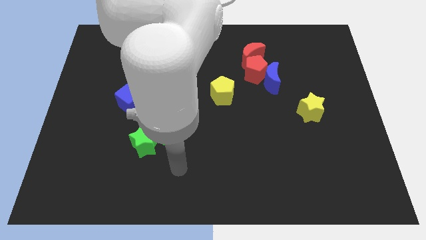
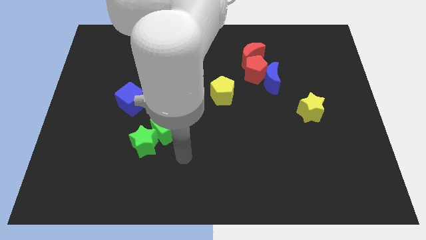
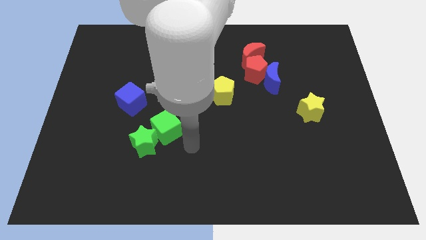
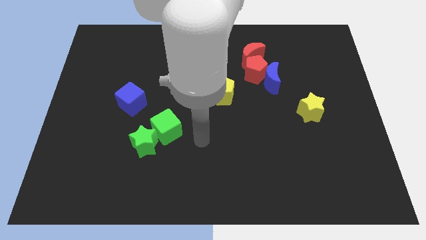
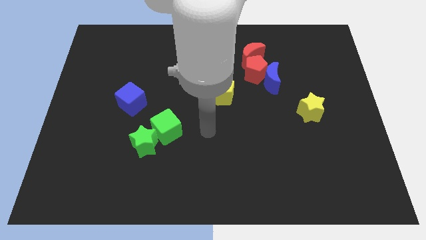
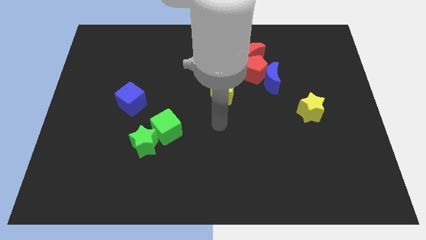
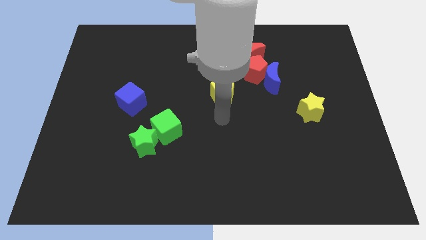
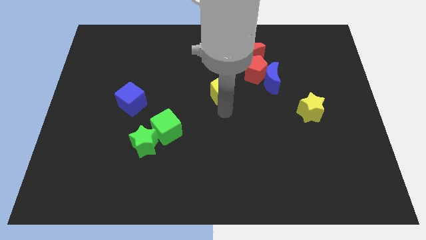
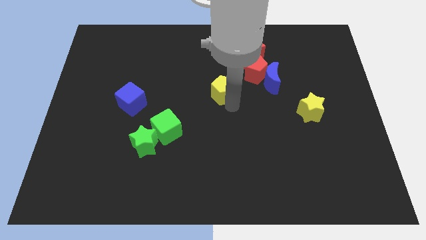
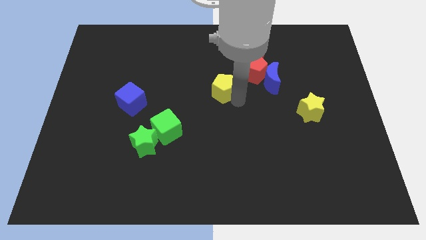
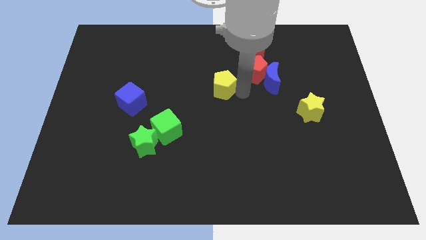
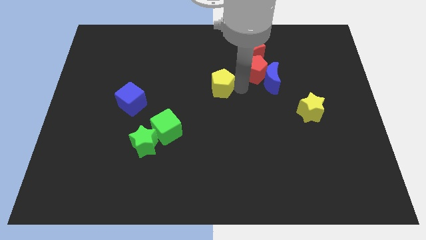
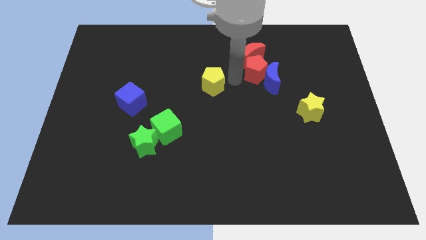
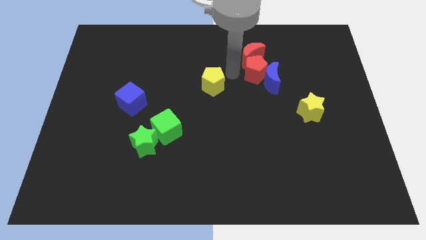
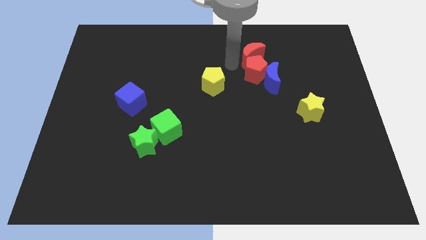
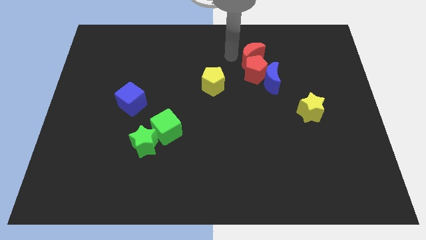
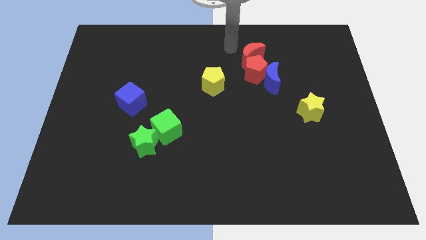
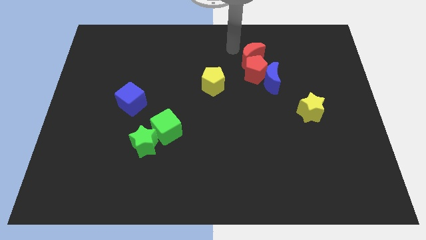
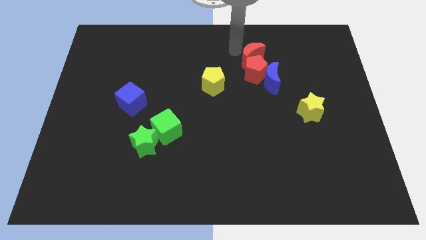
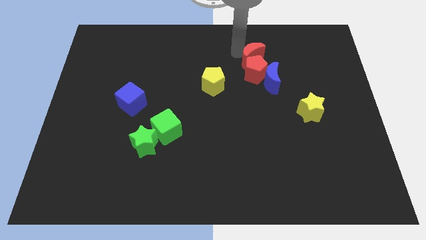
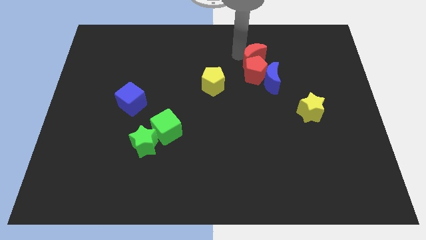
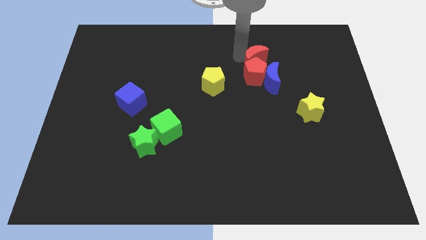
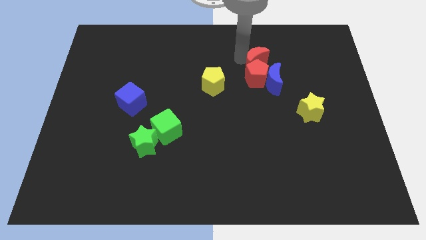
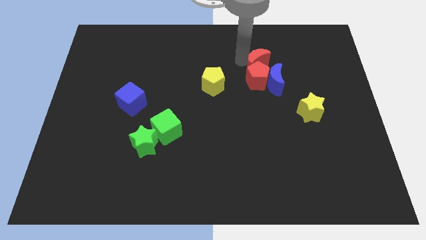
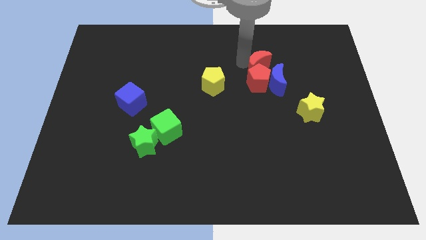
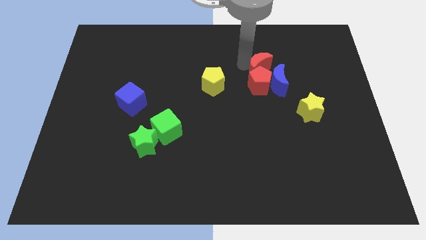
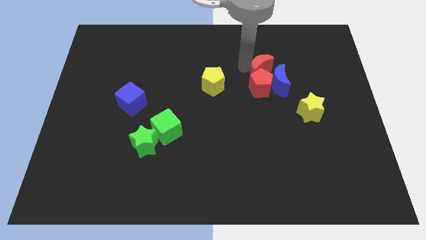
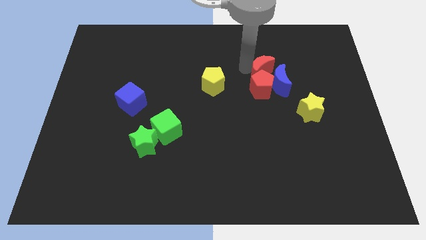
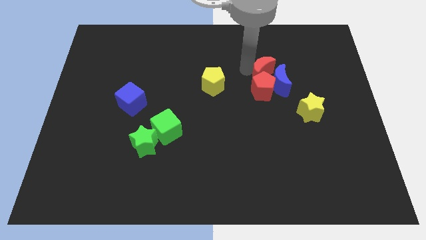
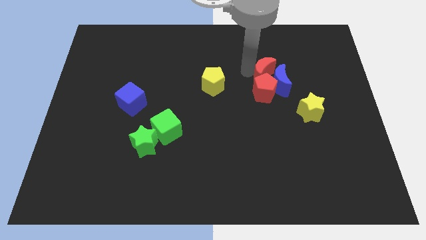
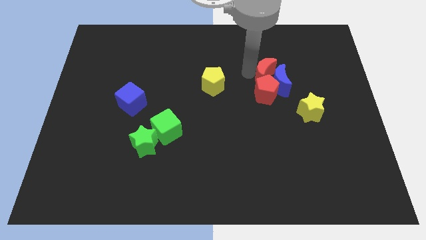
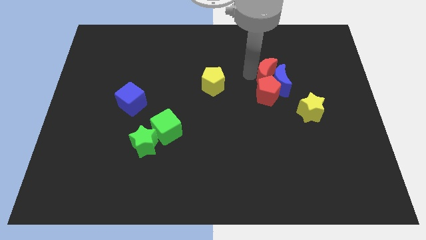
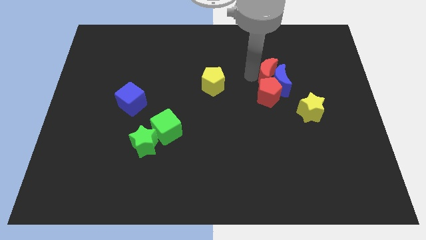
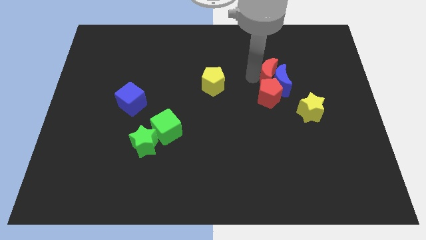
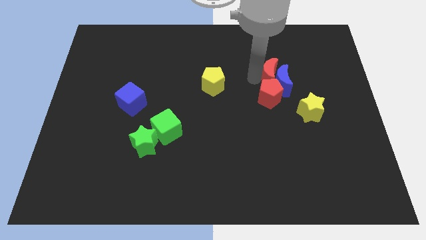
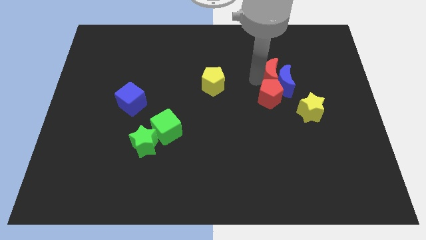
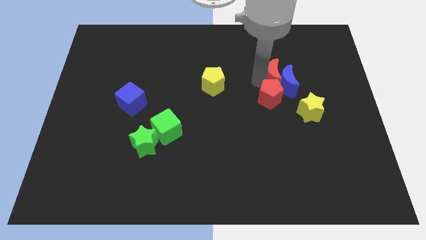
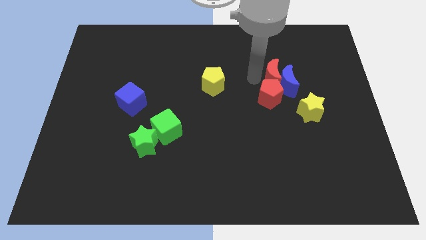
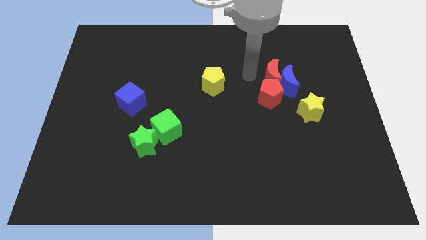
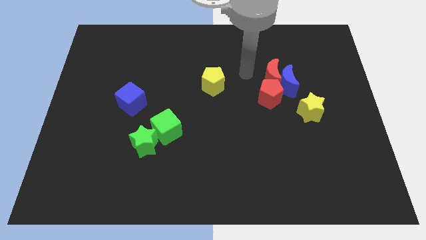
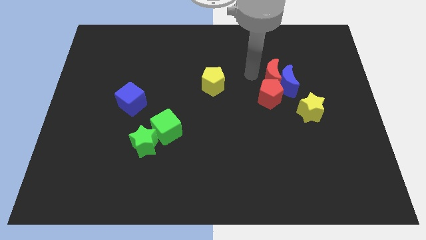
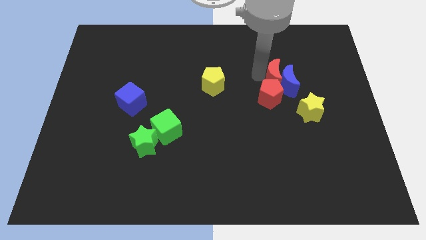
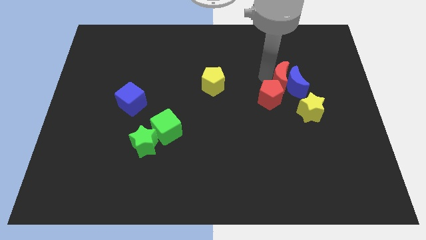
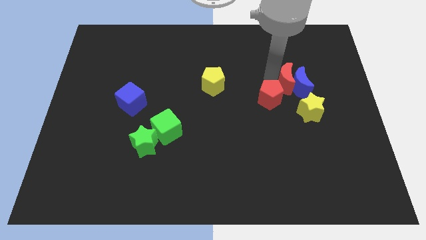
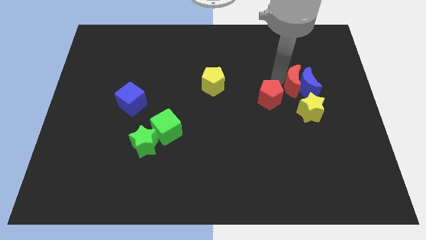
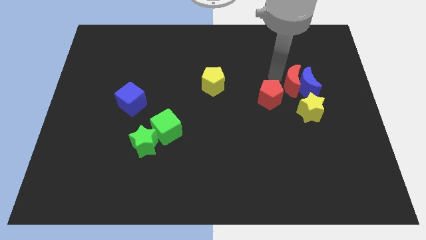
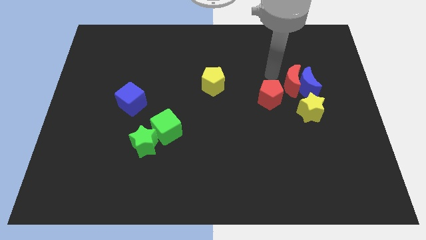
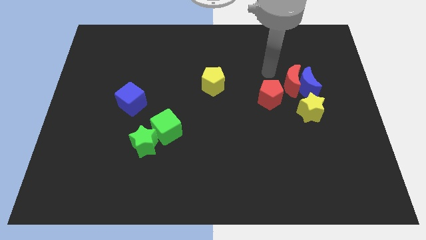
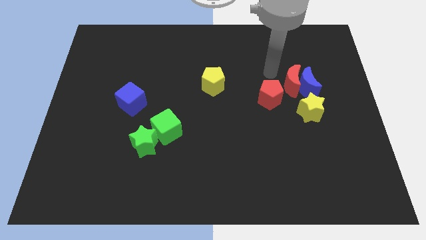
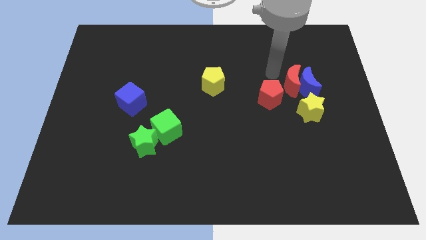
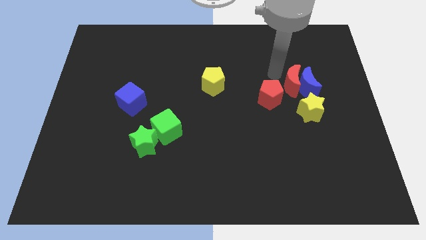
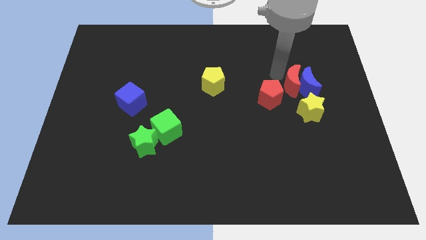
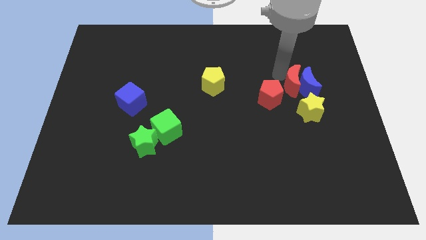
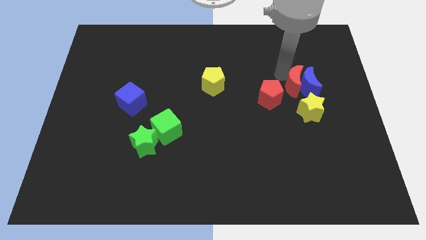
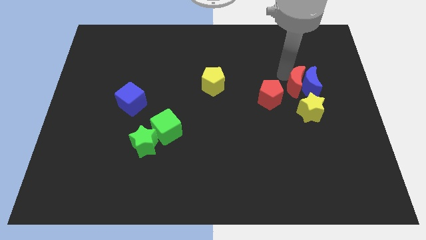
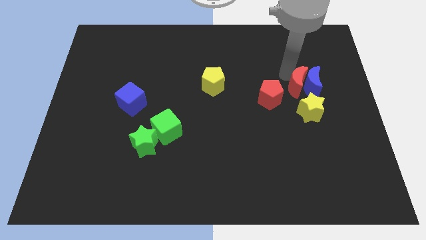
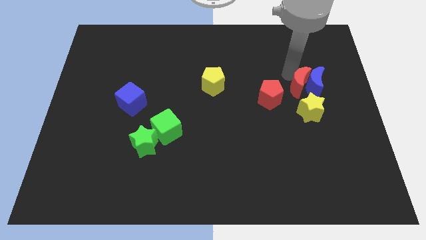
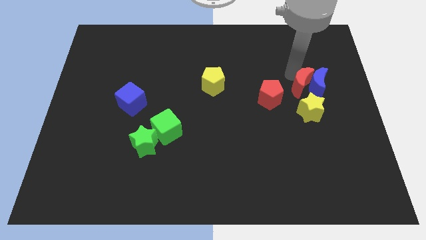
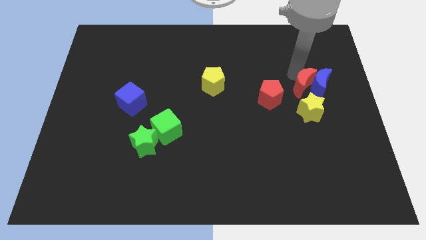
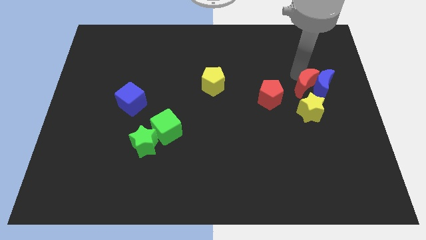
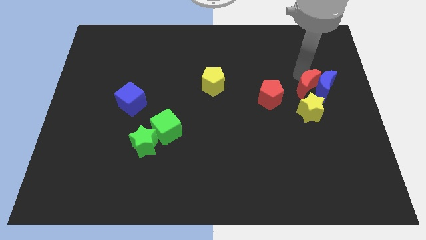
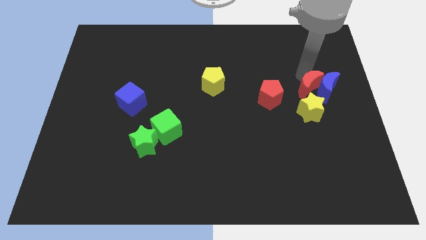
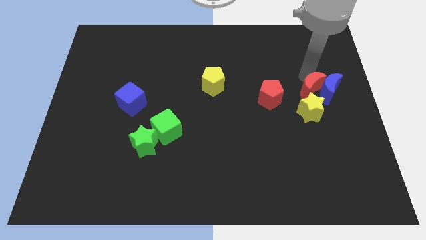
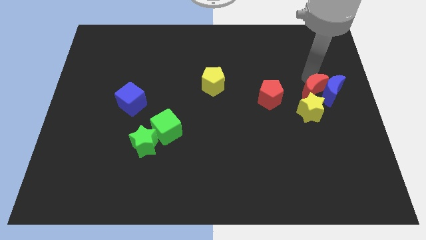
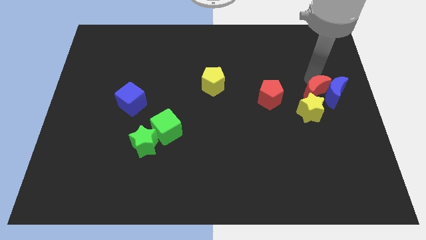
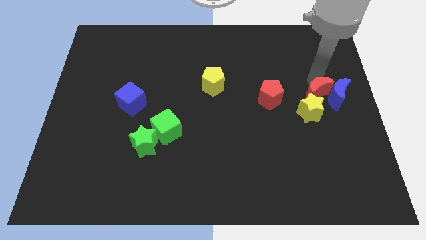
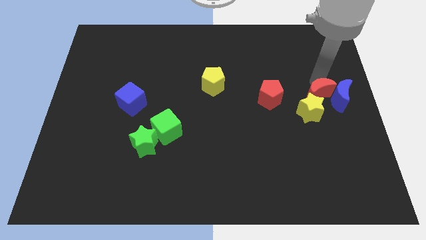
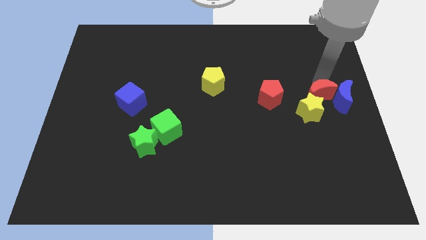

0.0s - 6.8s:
slide the red moon to the yellow star
